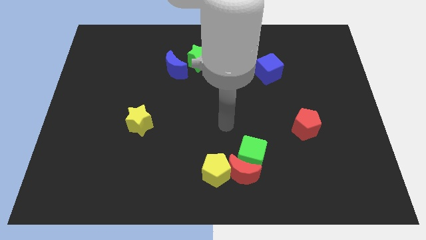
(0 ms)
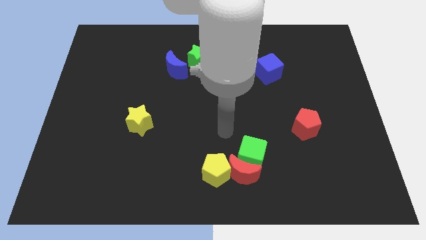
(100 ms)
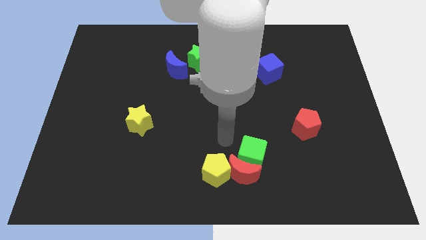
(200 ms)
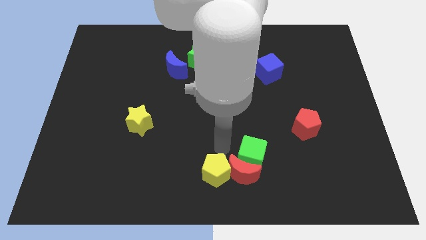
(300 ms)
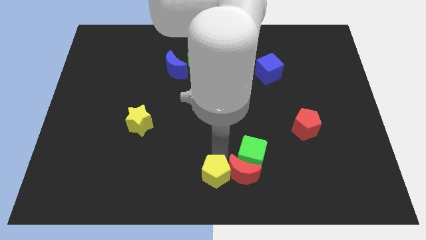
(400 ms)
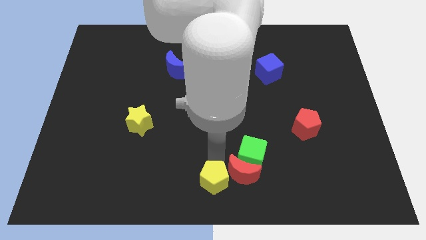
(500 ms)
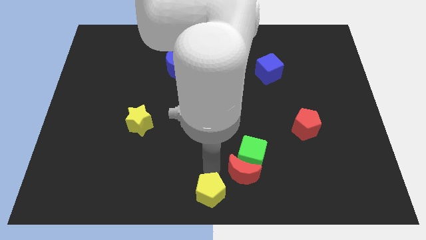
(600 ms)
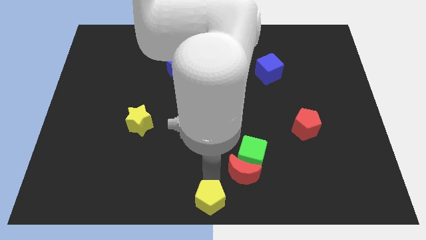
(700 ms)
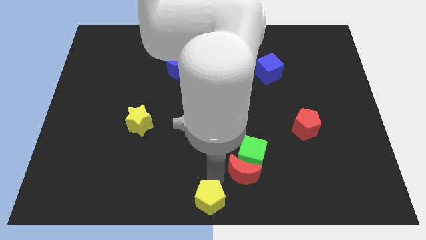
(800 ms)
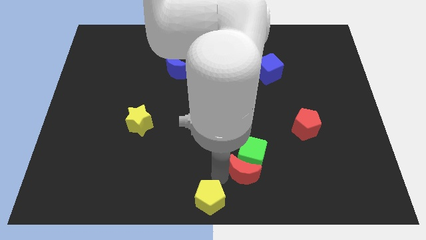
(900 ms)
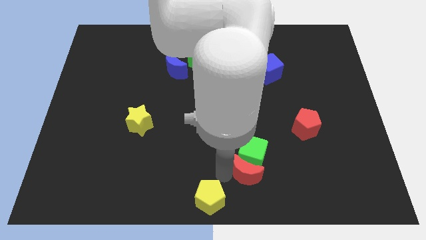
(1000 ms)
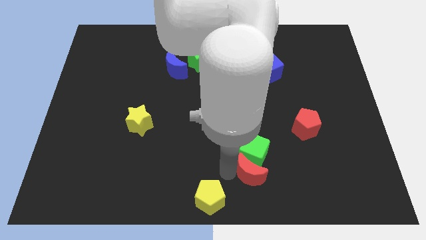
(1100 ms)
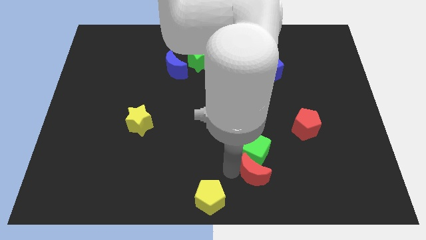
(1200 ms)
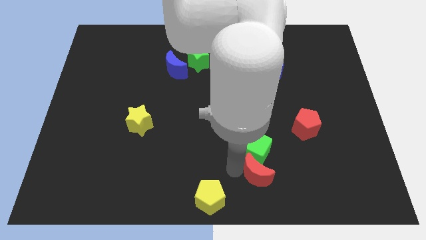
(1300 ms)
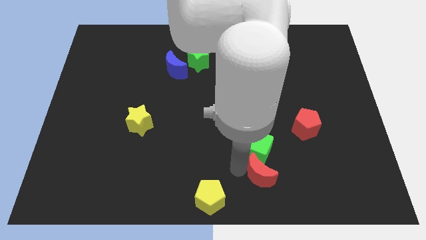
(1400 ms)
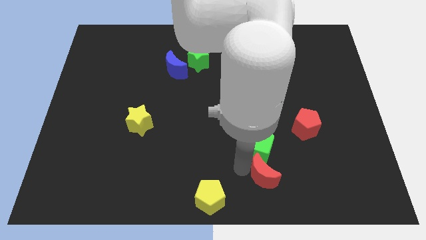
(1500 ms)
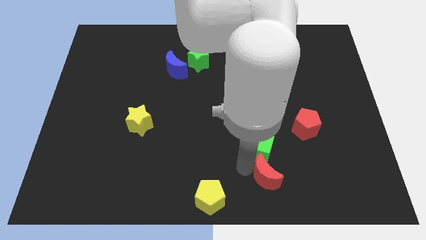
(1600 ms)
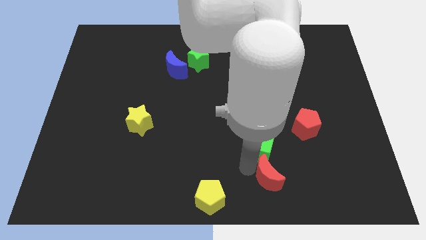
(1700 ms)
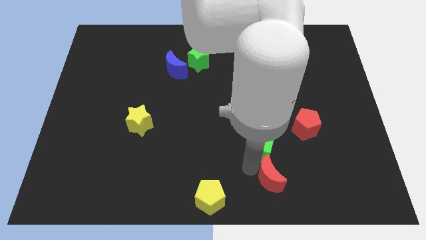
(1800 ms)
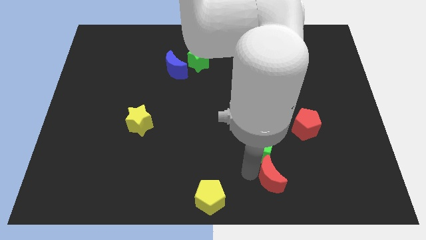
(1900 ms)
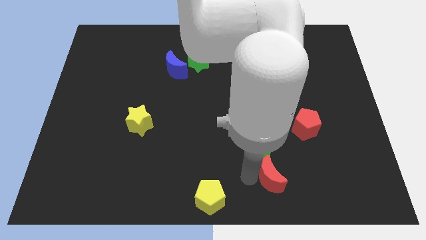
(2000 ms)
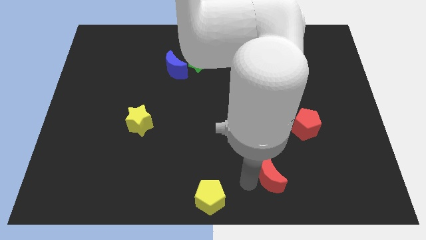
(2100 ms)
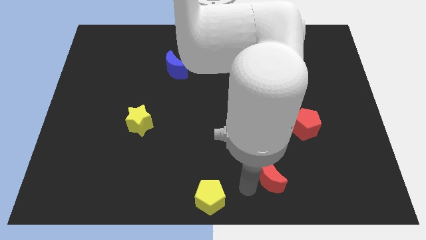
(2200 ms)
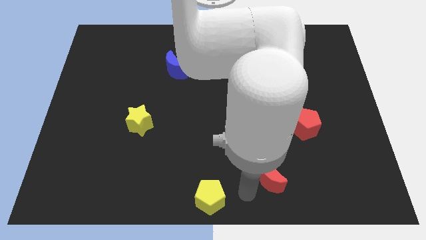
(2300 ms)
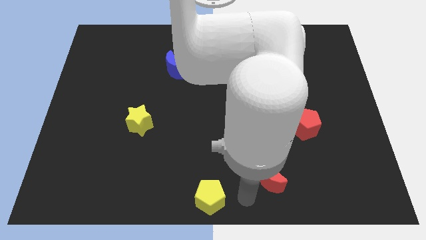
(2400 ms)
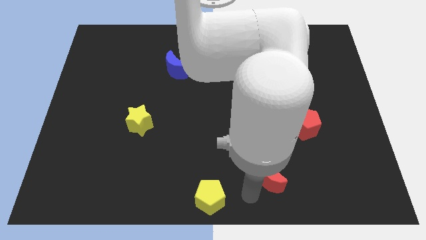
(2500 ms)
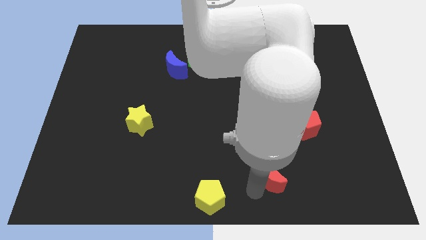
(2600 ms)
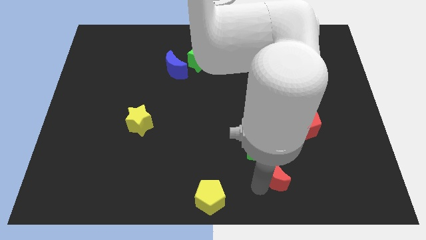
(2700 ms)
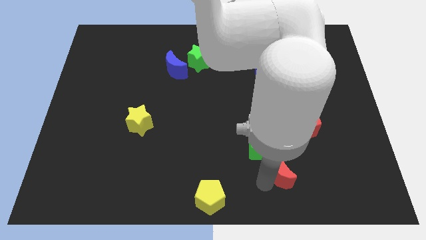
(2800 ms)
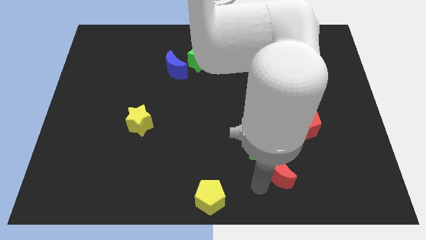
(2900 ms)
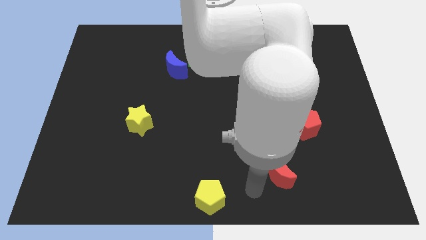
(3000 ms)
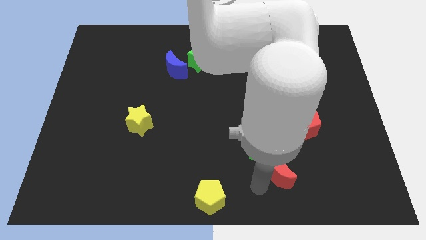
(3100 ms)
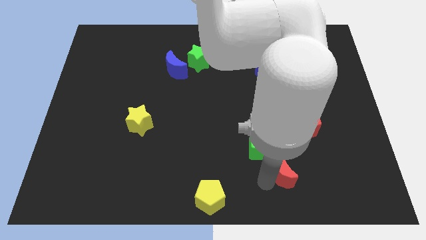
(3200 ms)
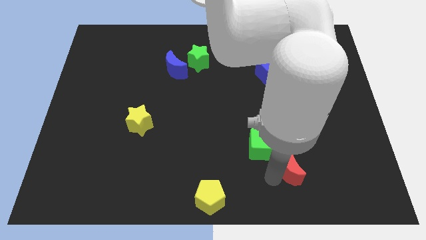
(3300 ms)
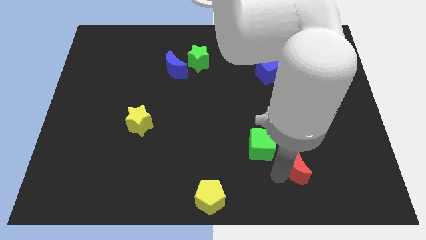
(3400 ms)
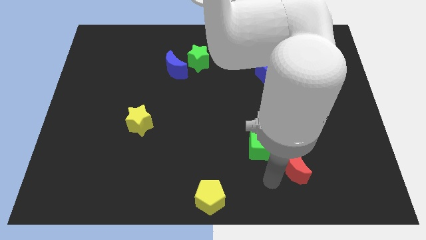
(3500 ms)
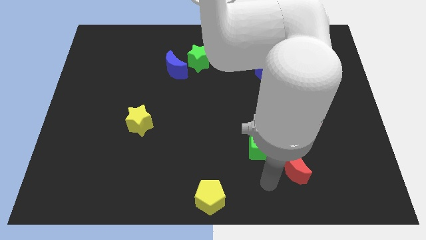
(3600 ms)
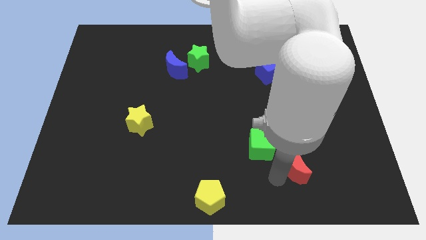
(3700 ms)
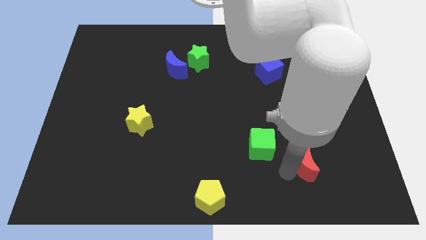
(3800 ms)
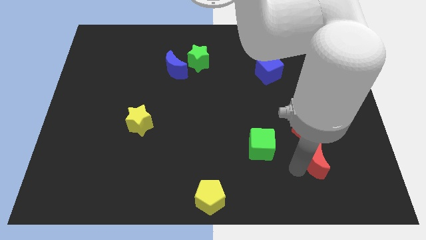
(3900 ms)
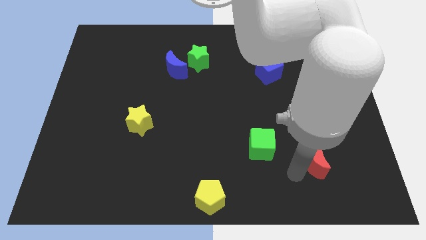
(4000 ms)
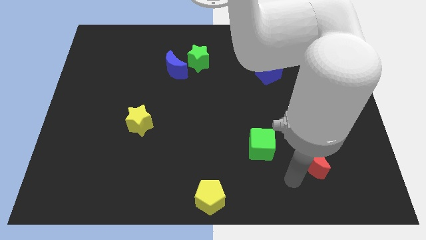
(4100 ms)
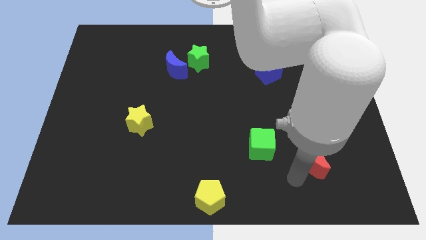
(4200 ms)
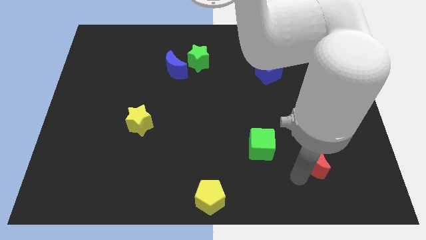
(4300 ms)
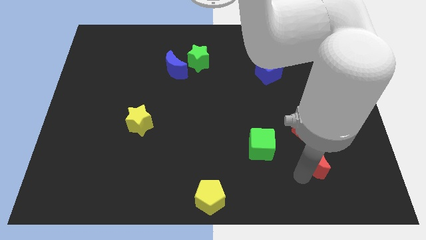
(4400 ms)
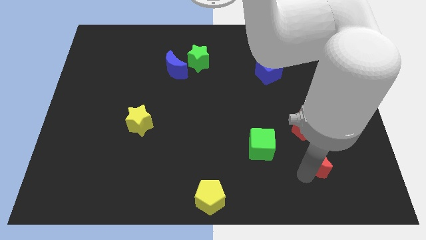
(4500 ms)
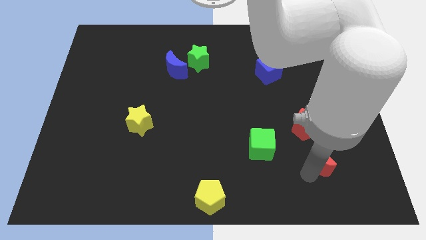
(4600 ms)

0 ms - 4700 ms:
put the red moon to the bottom right of the red pentagon

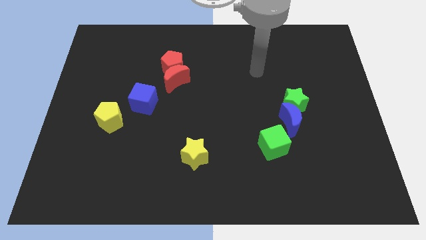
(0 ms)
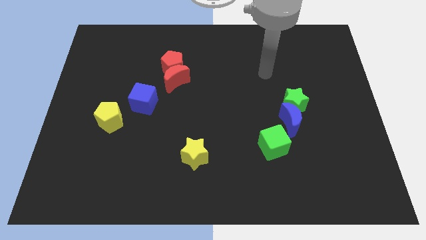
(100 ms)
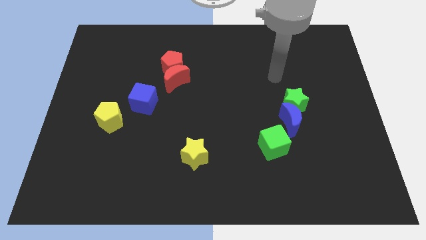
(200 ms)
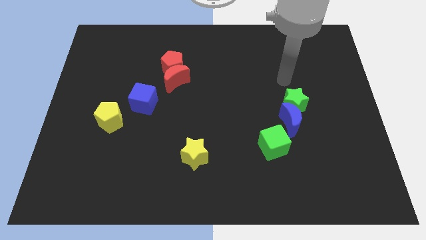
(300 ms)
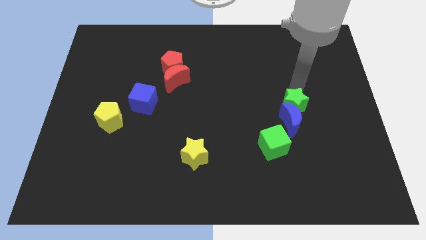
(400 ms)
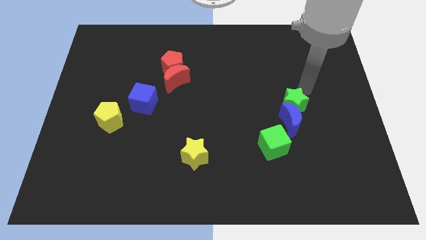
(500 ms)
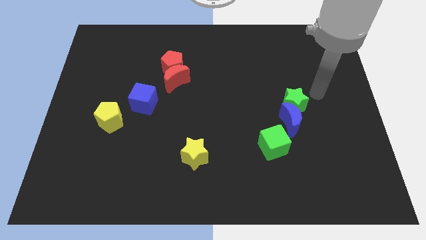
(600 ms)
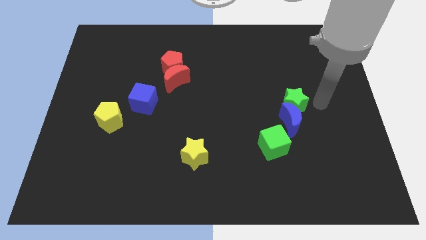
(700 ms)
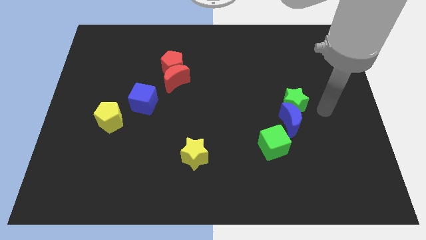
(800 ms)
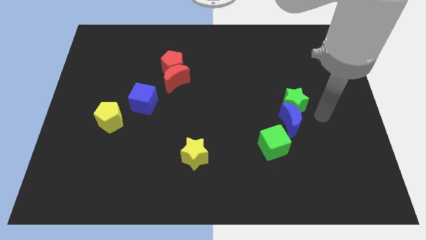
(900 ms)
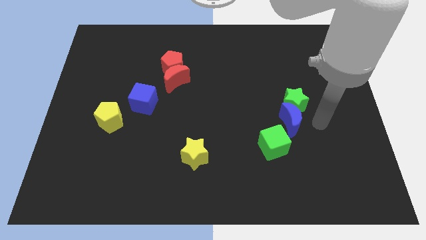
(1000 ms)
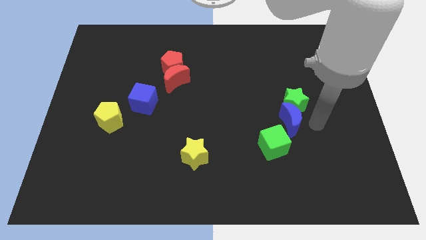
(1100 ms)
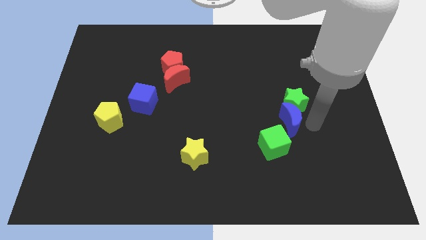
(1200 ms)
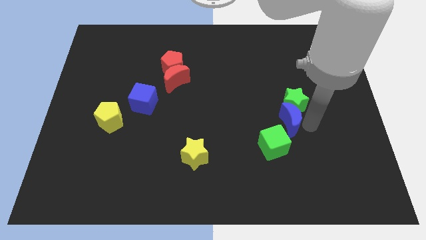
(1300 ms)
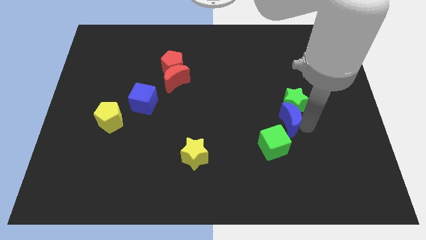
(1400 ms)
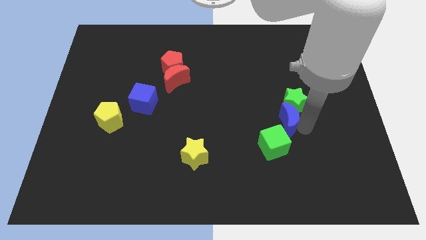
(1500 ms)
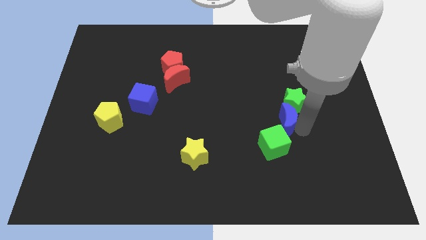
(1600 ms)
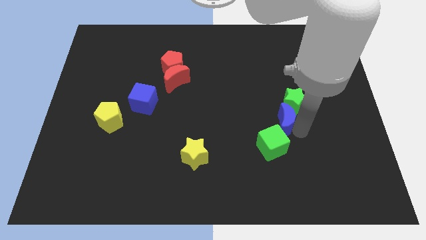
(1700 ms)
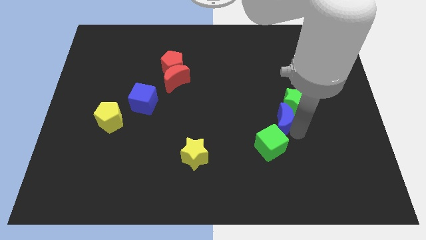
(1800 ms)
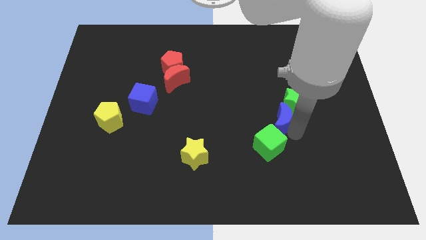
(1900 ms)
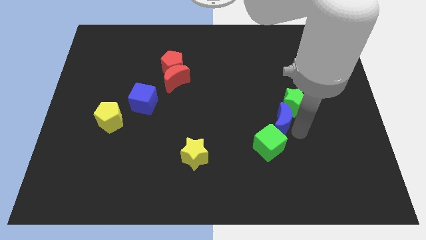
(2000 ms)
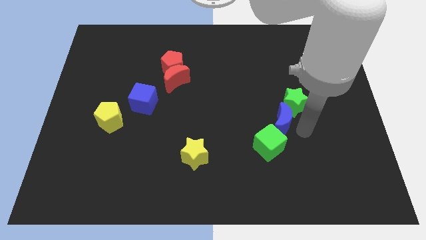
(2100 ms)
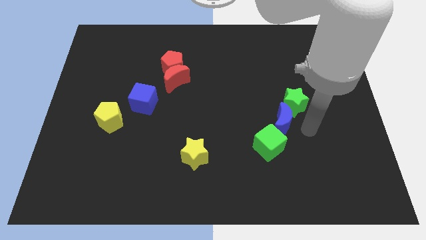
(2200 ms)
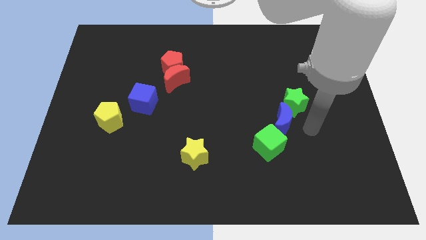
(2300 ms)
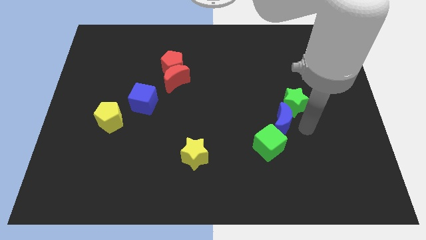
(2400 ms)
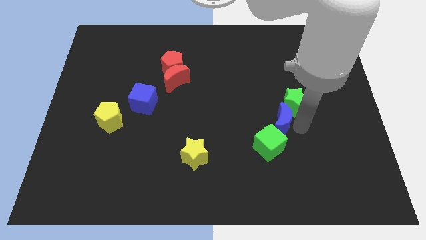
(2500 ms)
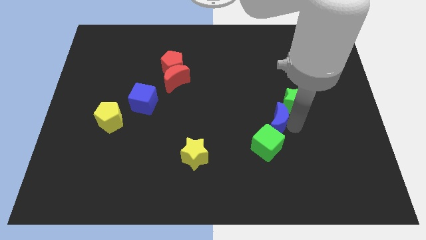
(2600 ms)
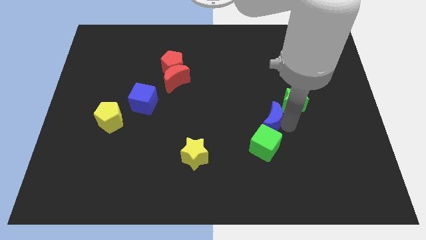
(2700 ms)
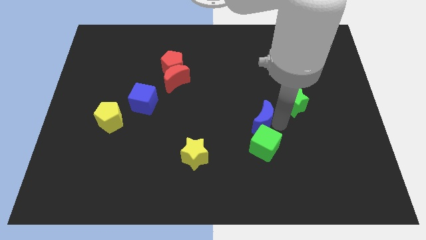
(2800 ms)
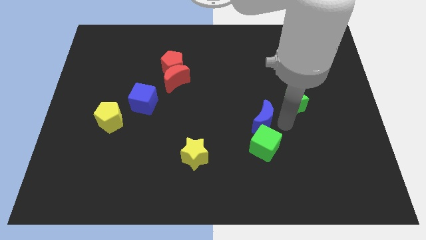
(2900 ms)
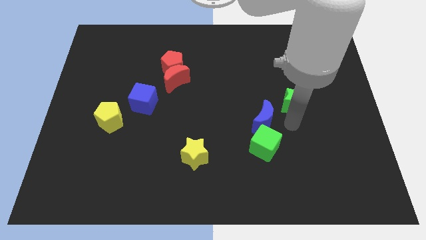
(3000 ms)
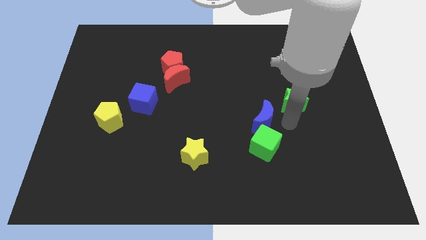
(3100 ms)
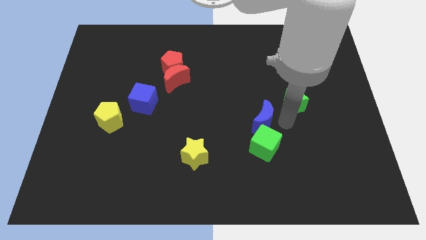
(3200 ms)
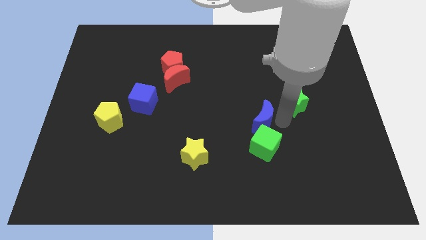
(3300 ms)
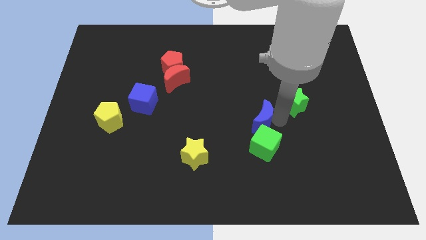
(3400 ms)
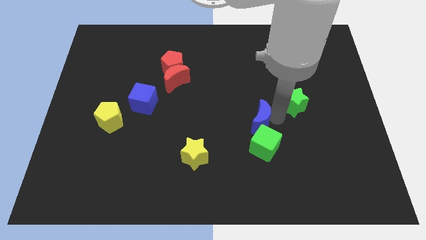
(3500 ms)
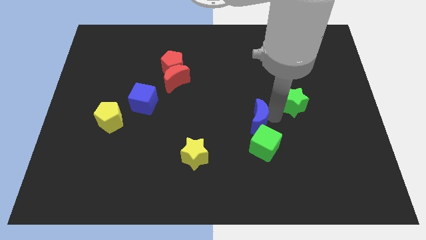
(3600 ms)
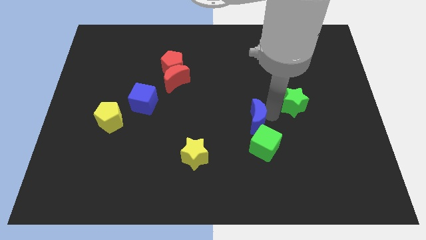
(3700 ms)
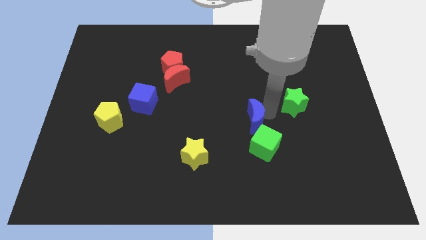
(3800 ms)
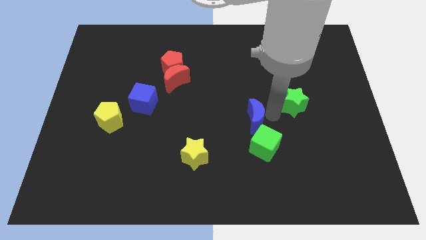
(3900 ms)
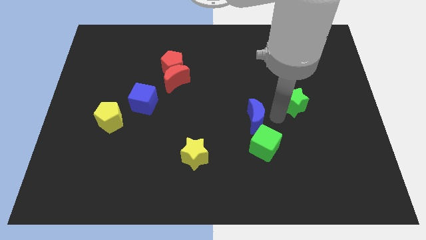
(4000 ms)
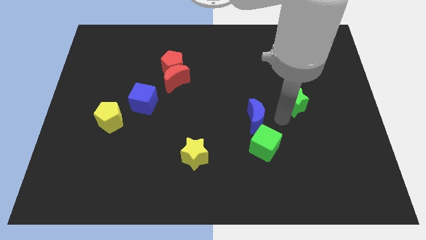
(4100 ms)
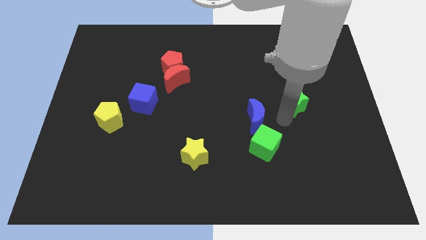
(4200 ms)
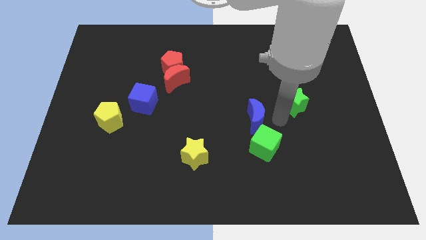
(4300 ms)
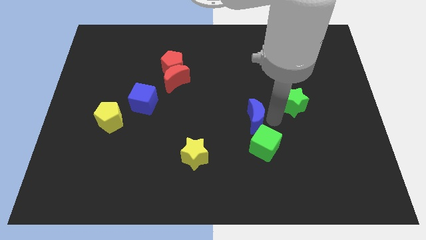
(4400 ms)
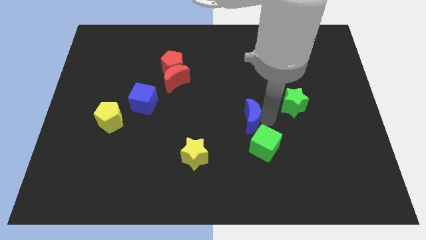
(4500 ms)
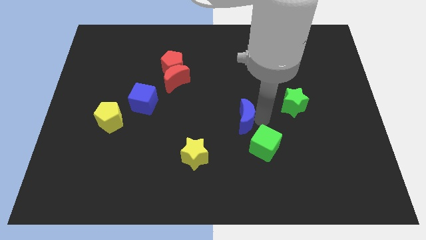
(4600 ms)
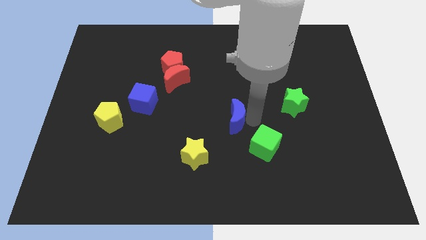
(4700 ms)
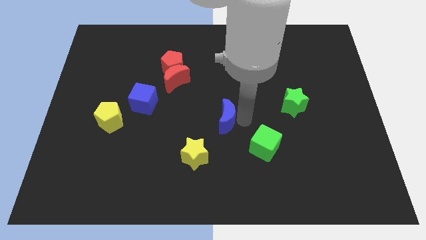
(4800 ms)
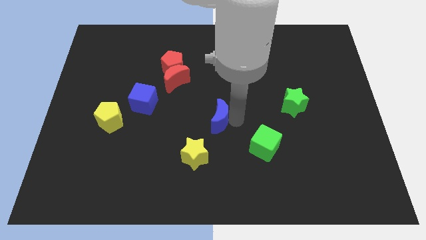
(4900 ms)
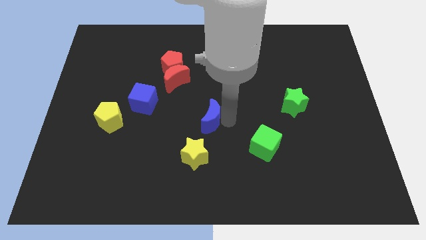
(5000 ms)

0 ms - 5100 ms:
move the blue moon to the top side of the yellow star
